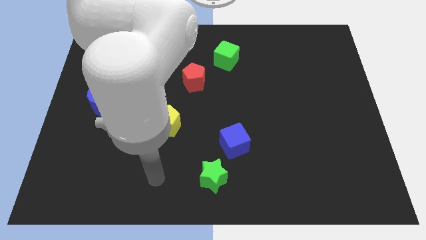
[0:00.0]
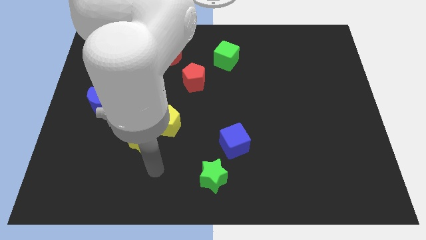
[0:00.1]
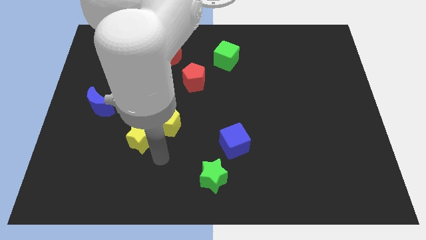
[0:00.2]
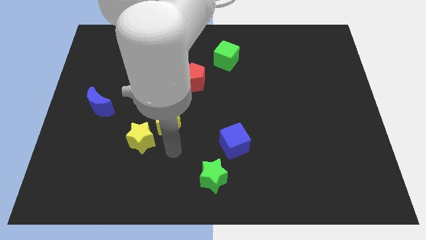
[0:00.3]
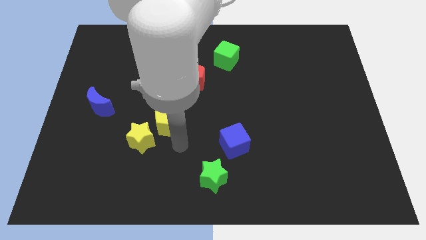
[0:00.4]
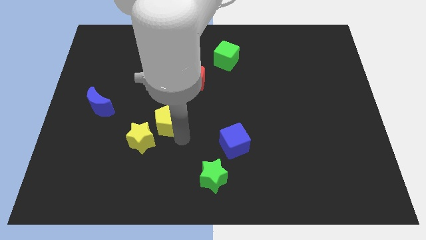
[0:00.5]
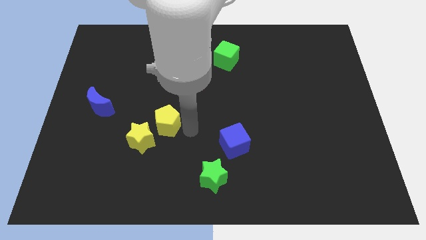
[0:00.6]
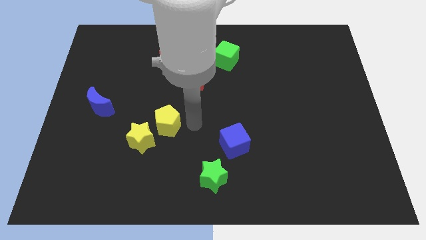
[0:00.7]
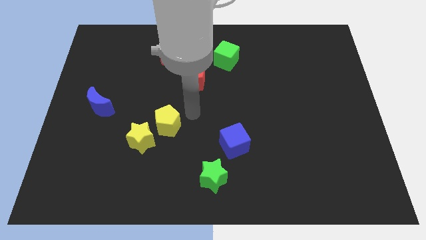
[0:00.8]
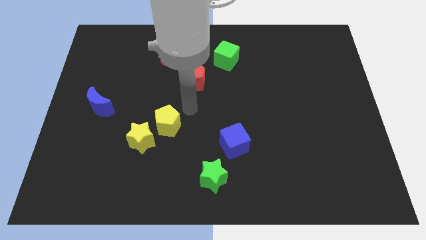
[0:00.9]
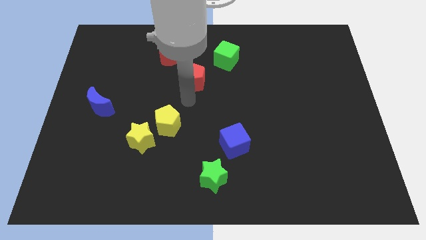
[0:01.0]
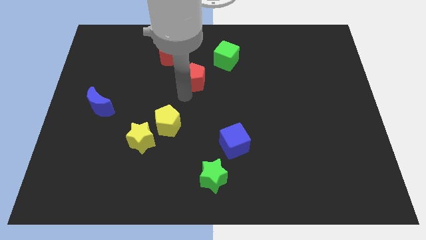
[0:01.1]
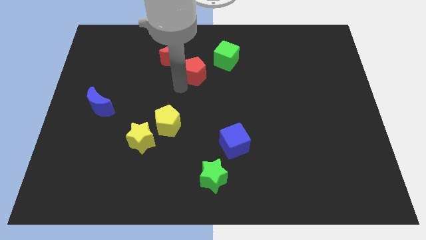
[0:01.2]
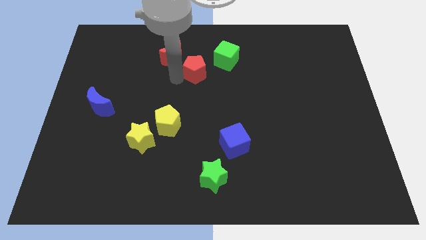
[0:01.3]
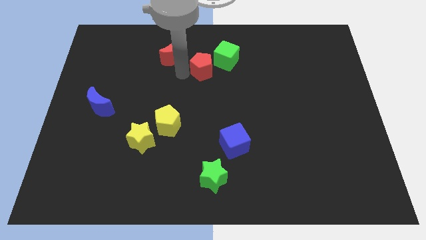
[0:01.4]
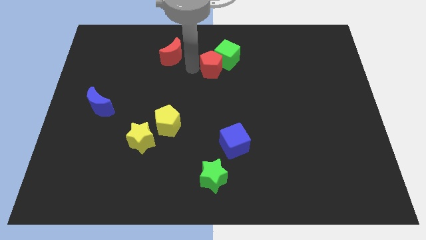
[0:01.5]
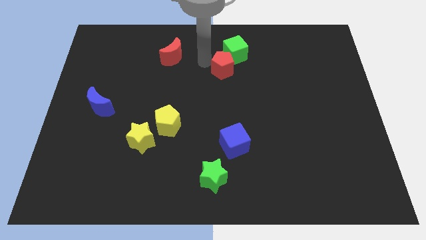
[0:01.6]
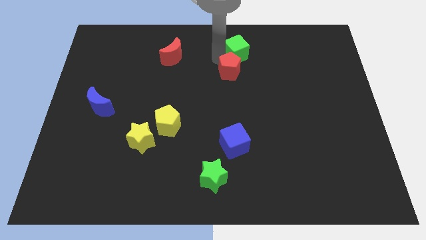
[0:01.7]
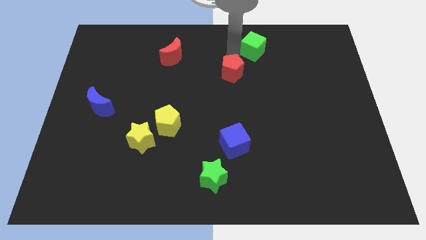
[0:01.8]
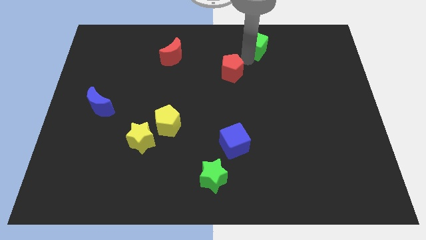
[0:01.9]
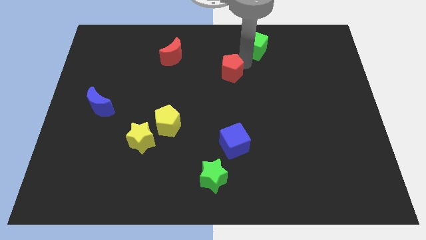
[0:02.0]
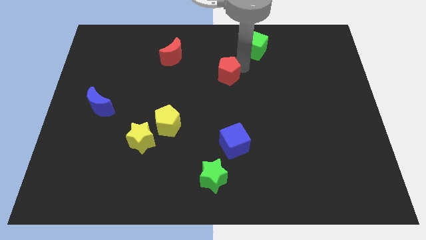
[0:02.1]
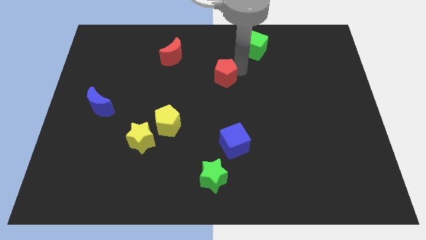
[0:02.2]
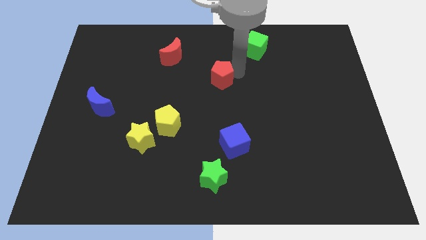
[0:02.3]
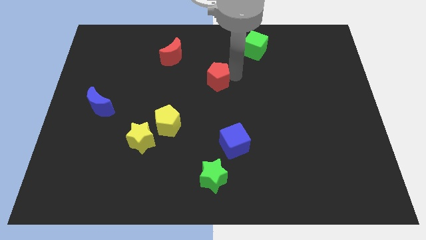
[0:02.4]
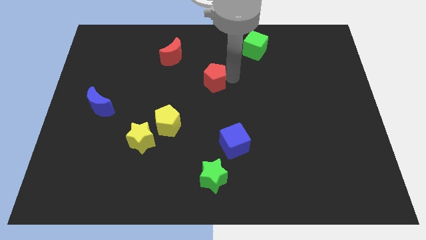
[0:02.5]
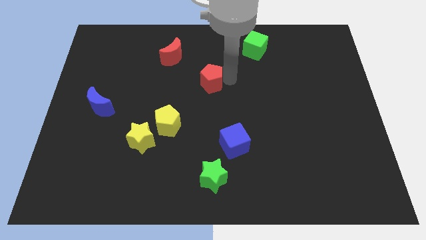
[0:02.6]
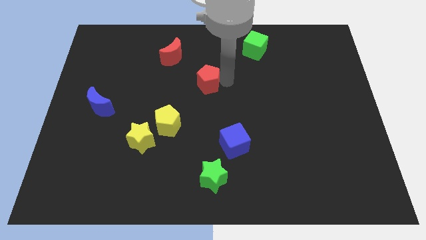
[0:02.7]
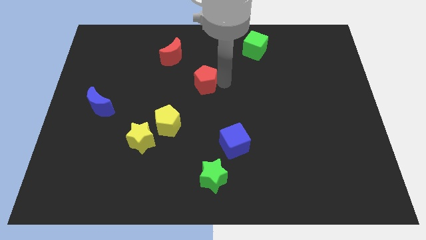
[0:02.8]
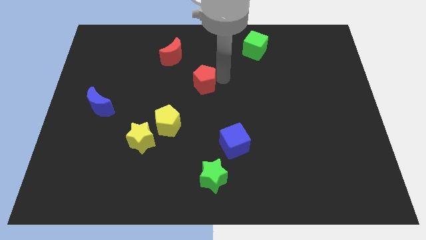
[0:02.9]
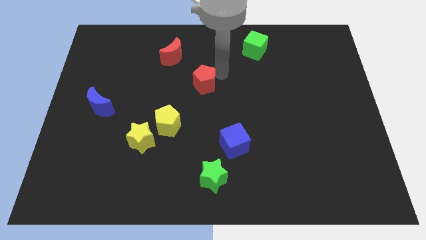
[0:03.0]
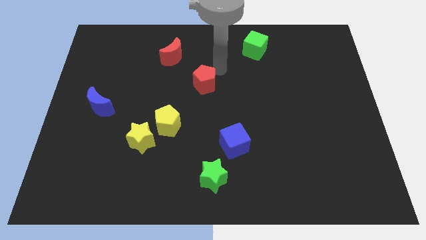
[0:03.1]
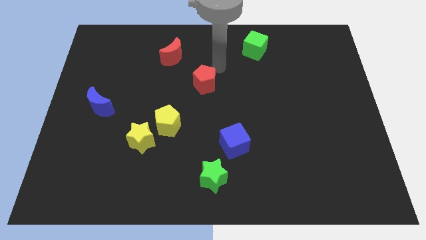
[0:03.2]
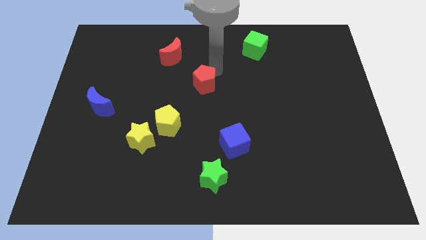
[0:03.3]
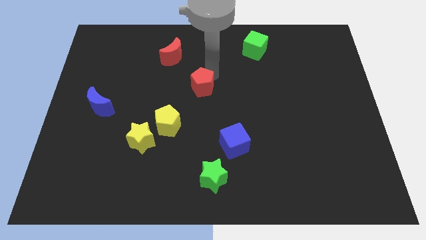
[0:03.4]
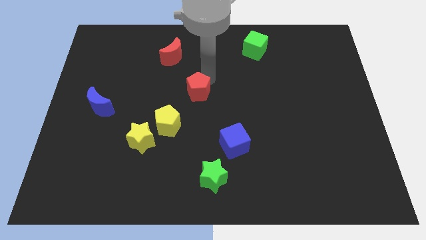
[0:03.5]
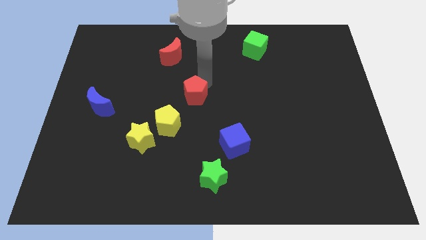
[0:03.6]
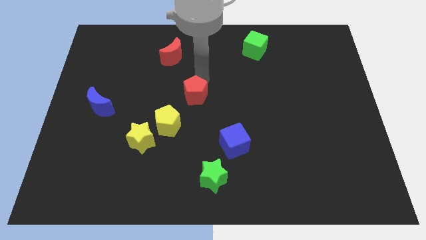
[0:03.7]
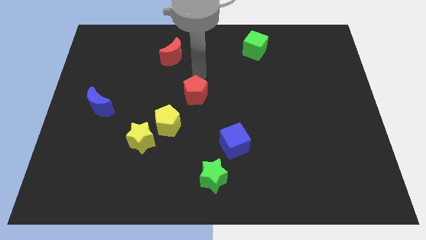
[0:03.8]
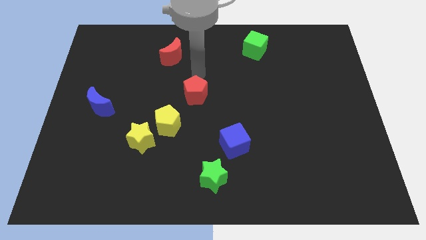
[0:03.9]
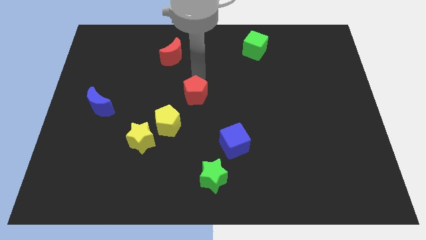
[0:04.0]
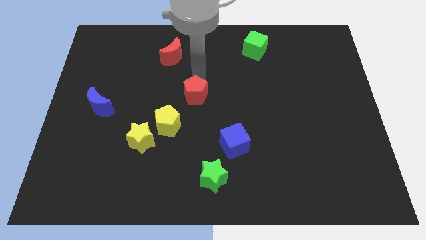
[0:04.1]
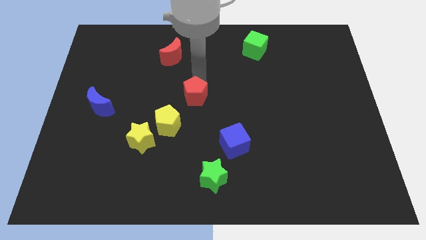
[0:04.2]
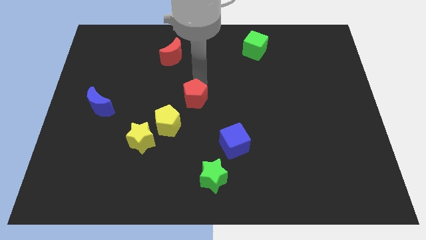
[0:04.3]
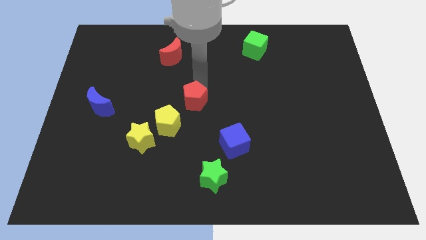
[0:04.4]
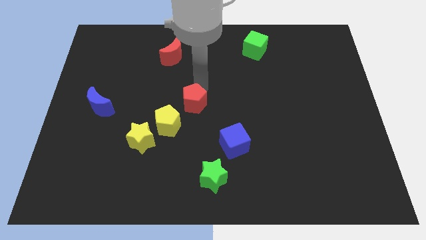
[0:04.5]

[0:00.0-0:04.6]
slide the red pentagon slightly down

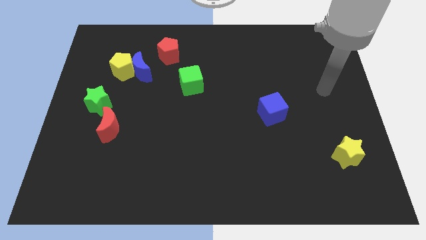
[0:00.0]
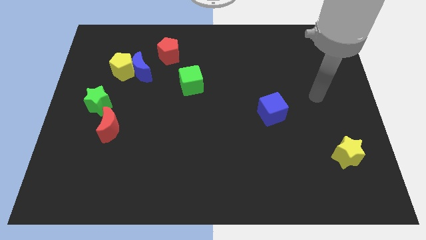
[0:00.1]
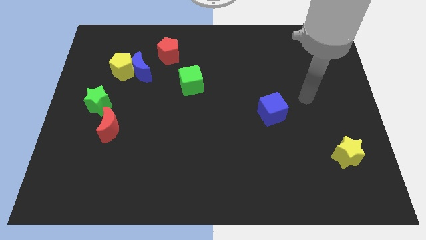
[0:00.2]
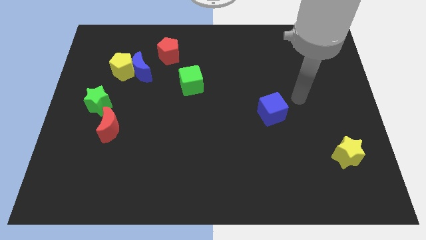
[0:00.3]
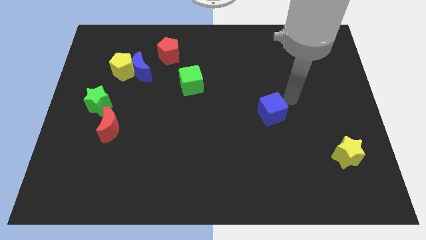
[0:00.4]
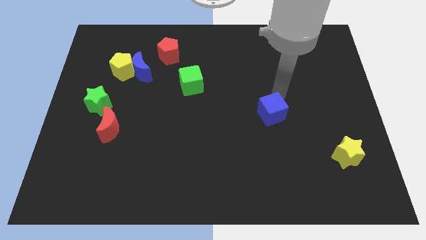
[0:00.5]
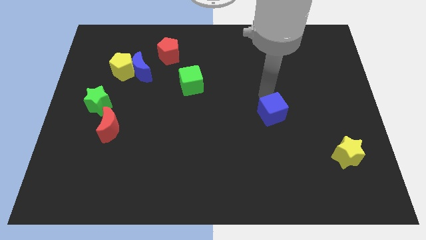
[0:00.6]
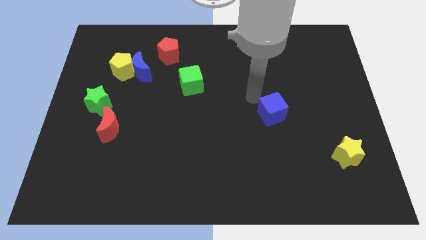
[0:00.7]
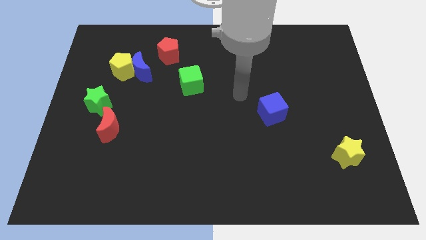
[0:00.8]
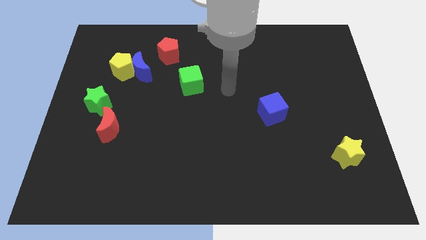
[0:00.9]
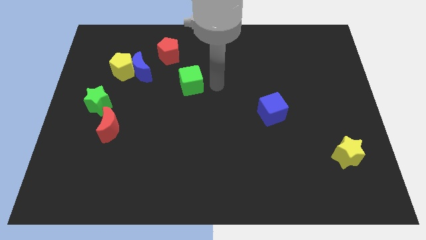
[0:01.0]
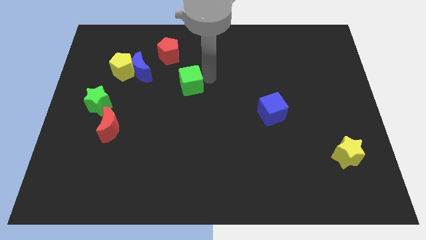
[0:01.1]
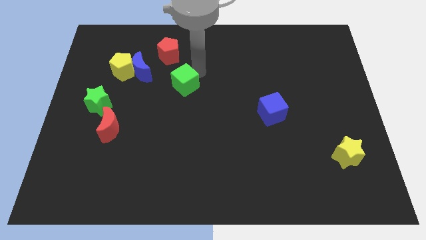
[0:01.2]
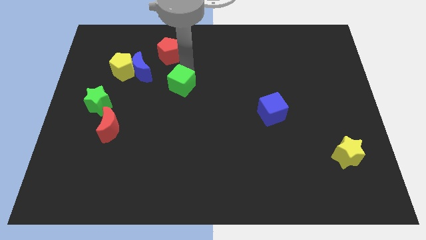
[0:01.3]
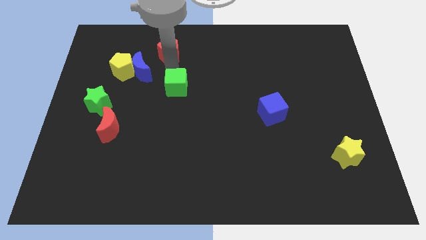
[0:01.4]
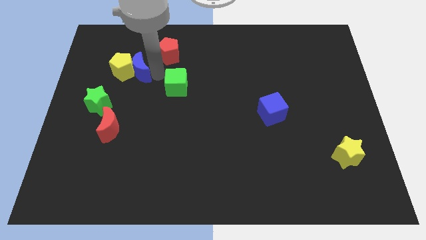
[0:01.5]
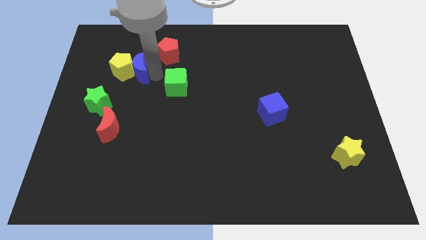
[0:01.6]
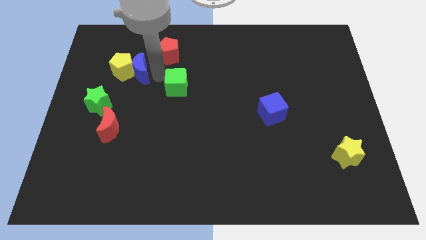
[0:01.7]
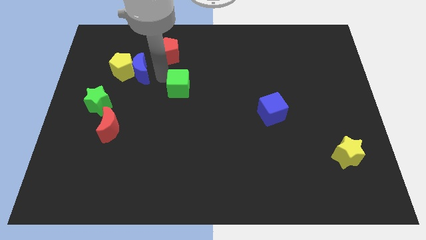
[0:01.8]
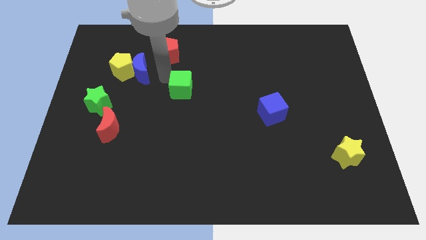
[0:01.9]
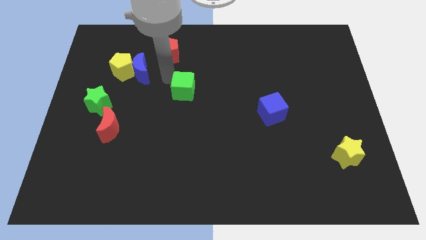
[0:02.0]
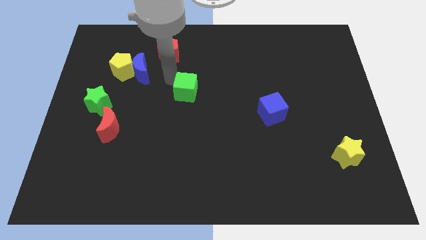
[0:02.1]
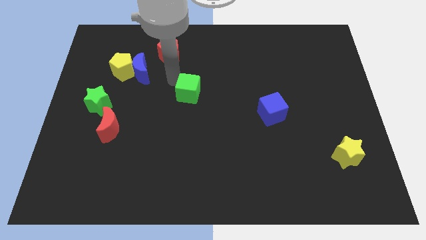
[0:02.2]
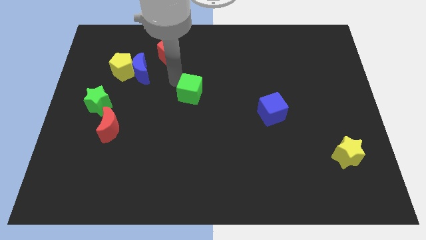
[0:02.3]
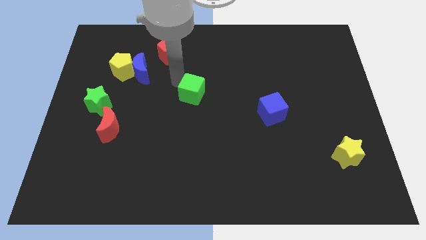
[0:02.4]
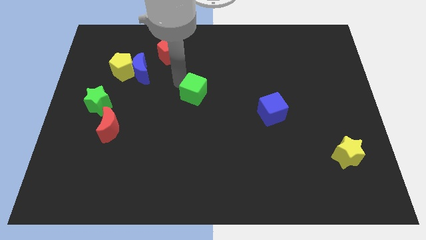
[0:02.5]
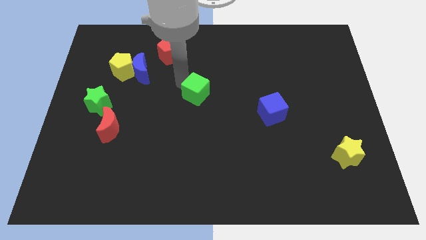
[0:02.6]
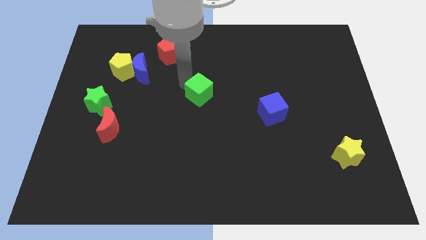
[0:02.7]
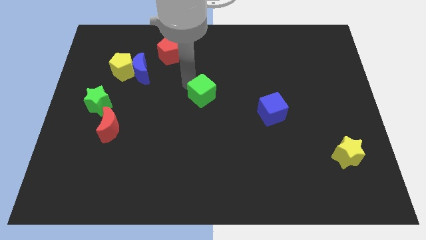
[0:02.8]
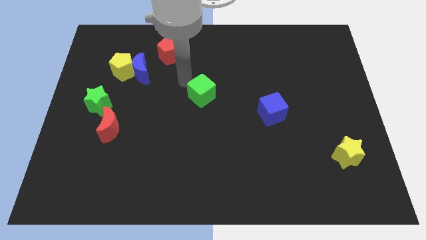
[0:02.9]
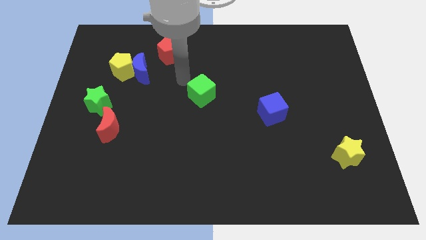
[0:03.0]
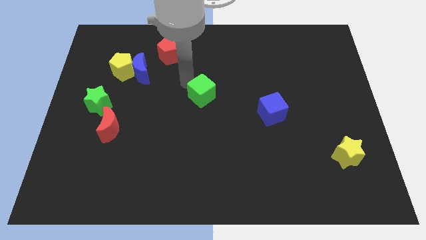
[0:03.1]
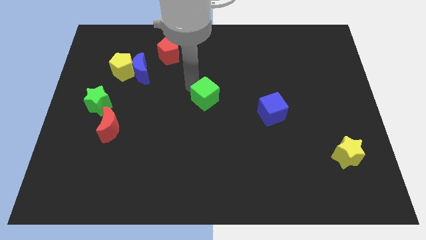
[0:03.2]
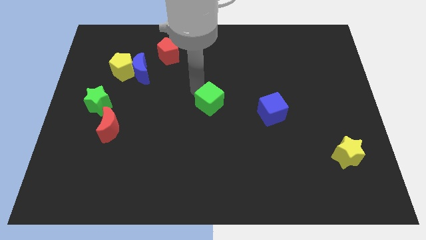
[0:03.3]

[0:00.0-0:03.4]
slightly push the green cube diagonally down and to the right
